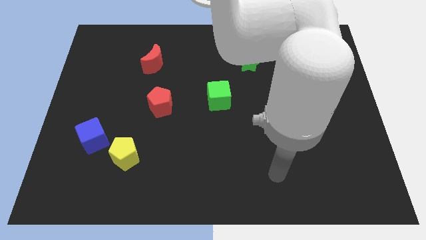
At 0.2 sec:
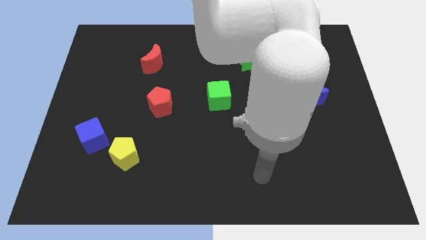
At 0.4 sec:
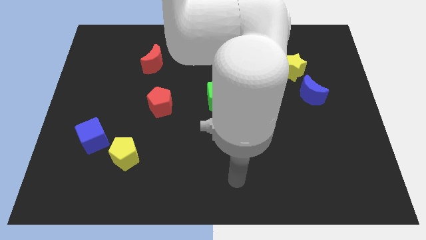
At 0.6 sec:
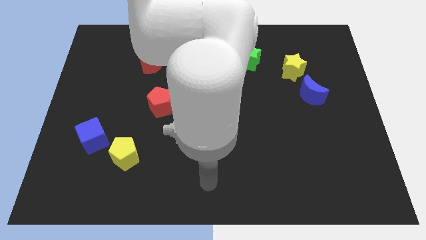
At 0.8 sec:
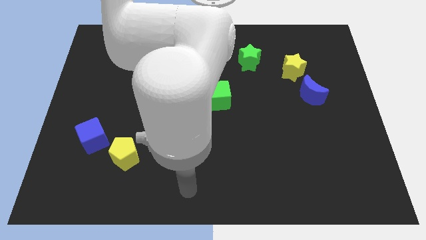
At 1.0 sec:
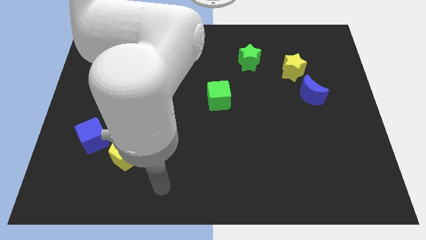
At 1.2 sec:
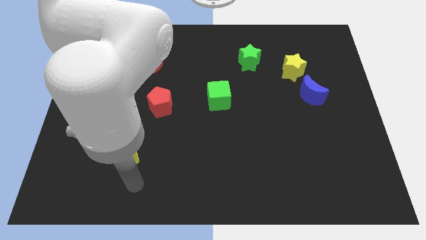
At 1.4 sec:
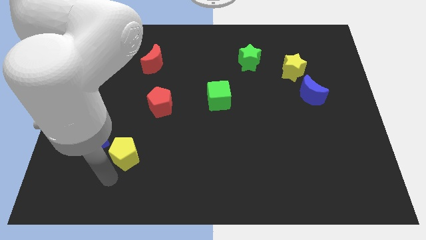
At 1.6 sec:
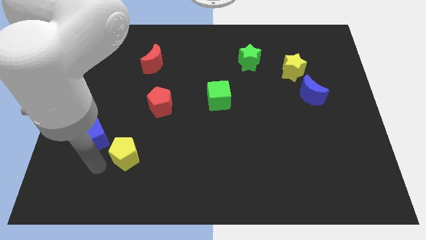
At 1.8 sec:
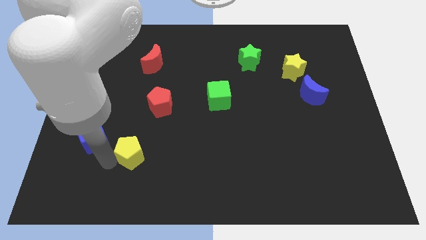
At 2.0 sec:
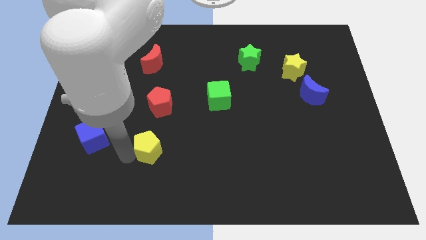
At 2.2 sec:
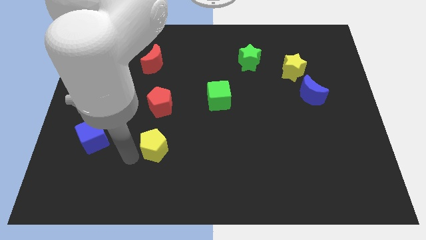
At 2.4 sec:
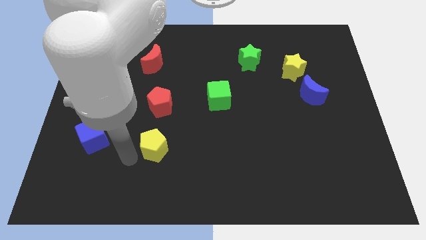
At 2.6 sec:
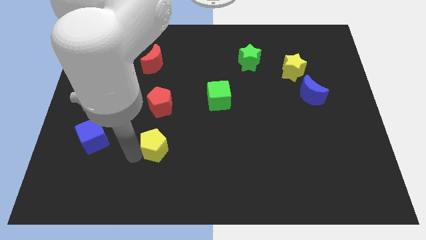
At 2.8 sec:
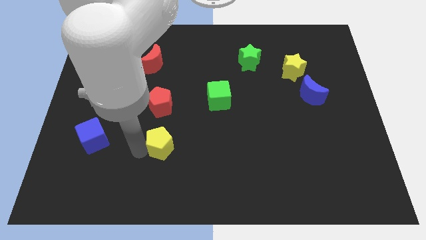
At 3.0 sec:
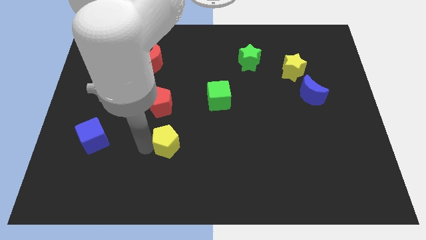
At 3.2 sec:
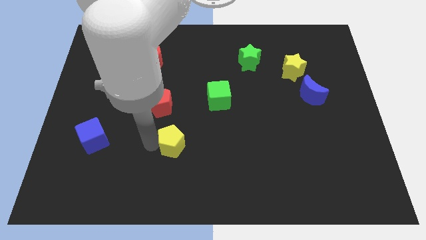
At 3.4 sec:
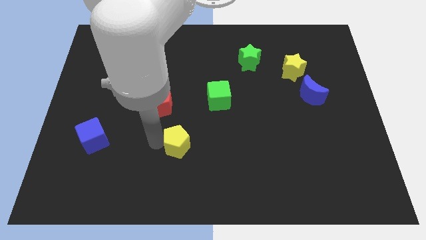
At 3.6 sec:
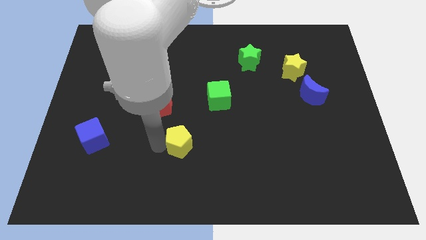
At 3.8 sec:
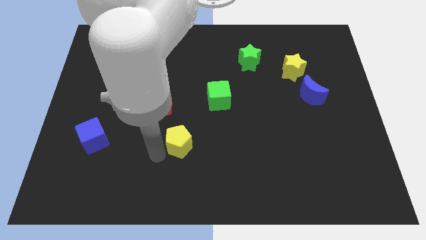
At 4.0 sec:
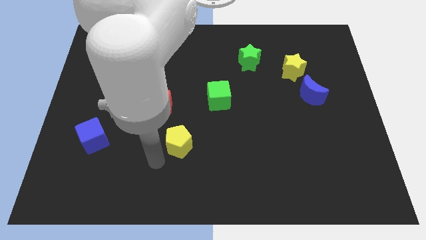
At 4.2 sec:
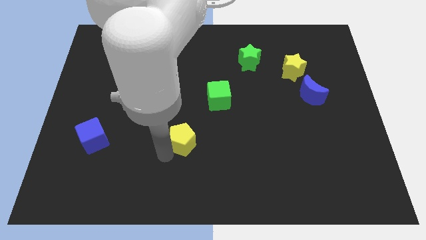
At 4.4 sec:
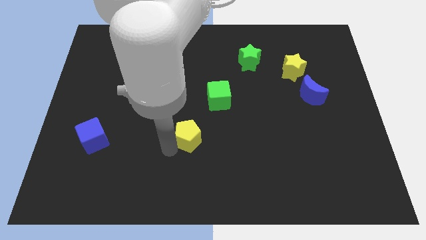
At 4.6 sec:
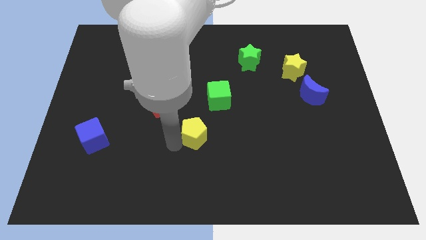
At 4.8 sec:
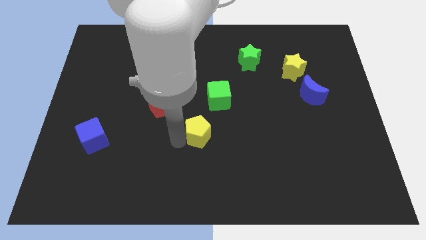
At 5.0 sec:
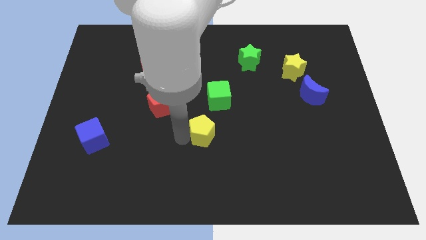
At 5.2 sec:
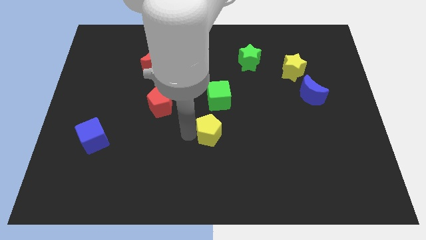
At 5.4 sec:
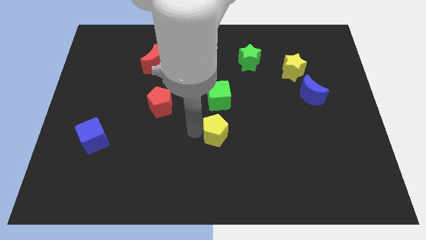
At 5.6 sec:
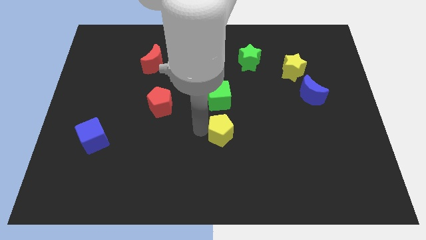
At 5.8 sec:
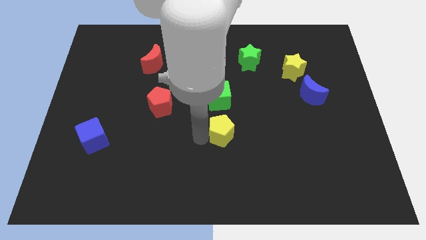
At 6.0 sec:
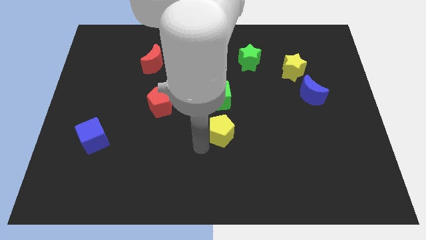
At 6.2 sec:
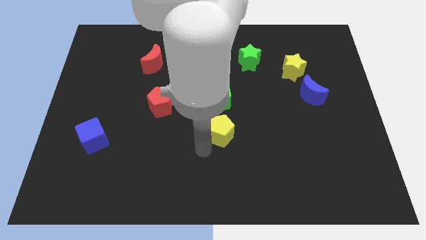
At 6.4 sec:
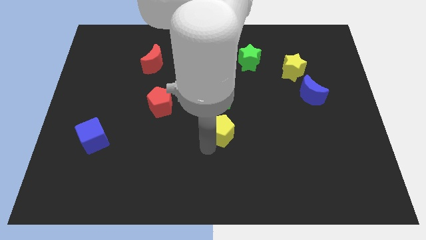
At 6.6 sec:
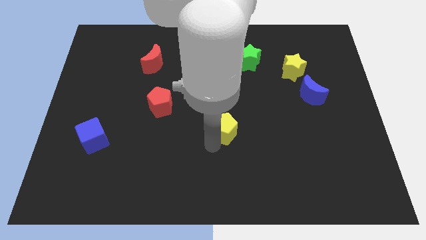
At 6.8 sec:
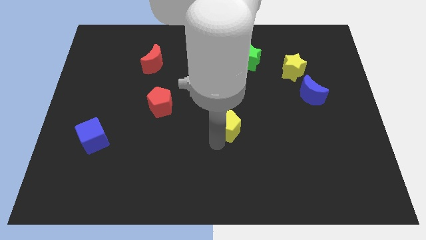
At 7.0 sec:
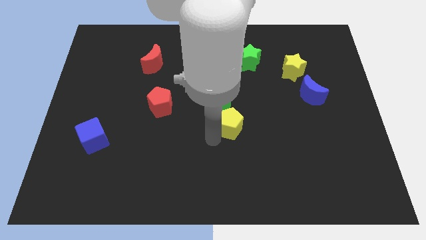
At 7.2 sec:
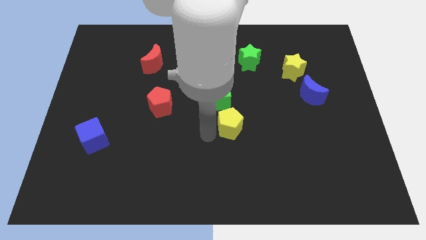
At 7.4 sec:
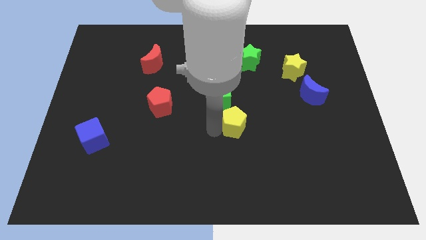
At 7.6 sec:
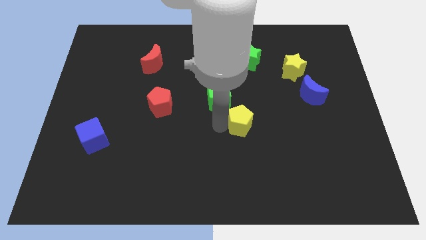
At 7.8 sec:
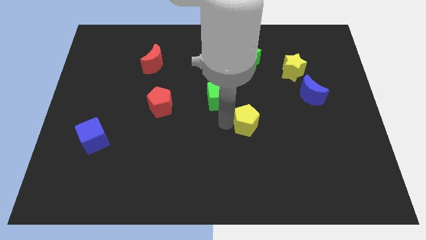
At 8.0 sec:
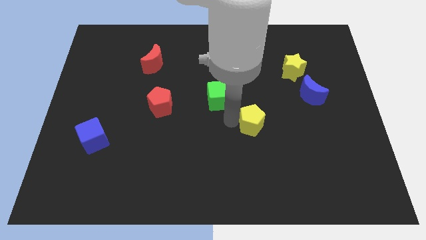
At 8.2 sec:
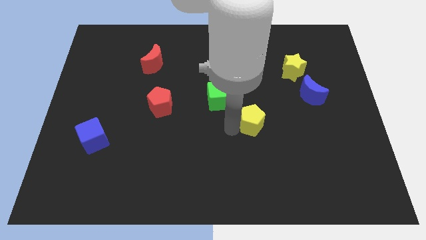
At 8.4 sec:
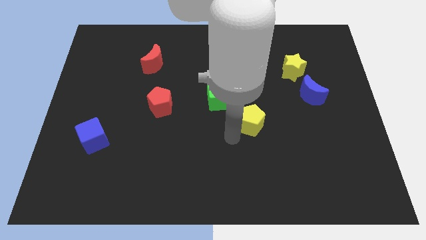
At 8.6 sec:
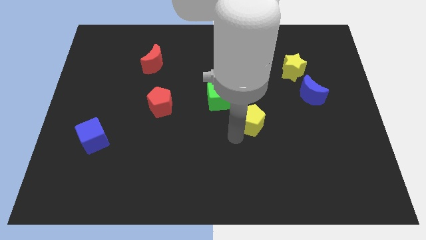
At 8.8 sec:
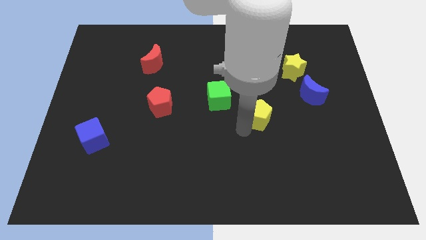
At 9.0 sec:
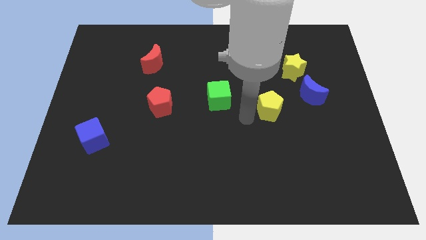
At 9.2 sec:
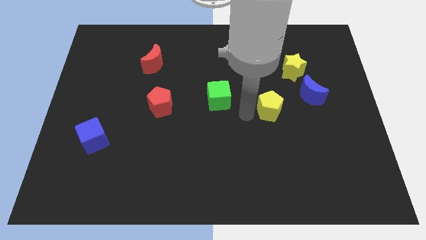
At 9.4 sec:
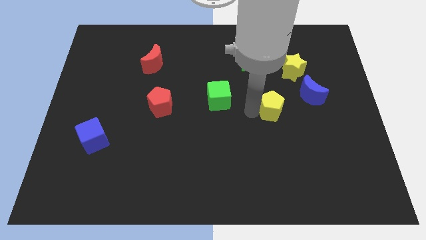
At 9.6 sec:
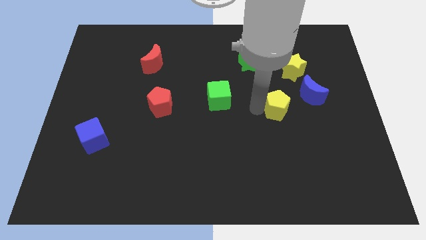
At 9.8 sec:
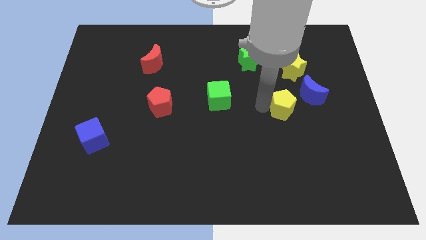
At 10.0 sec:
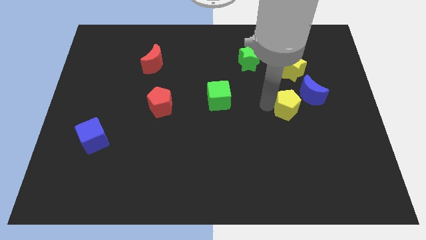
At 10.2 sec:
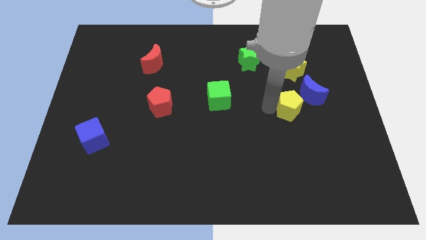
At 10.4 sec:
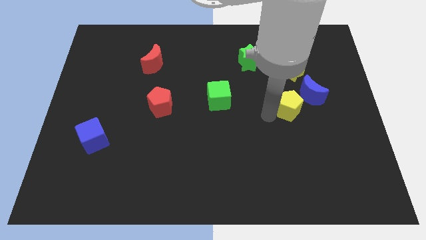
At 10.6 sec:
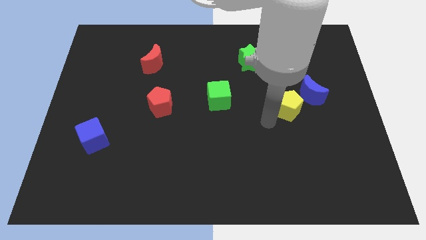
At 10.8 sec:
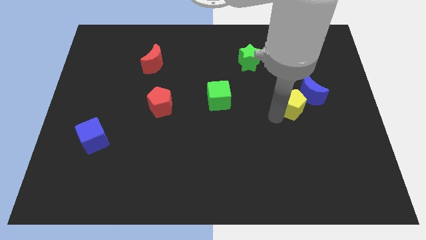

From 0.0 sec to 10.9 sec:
push the yellow pentagon to the blue moon

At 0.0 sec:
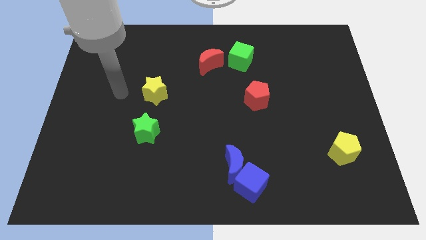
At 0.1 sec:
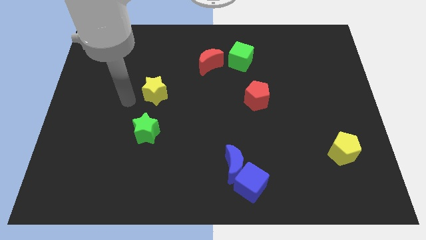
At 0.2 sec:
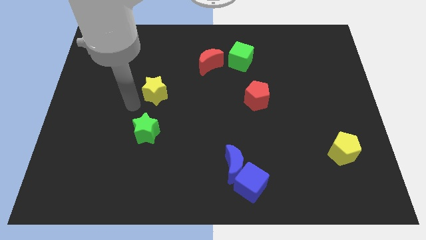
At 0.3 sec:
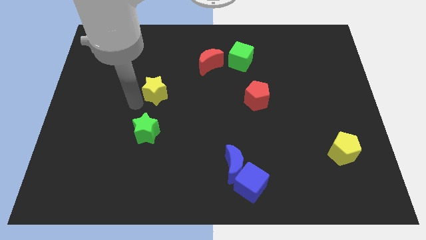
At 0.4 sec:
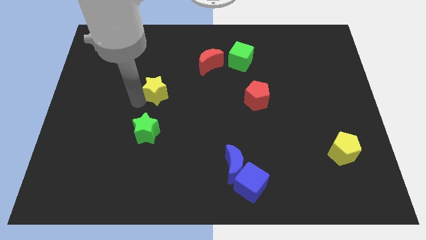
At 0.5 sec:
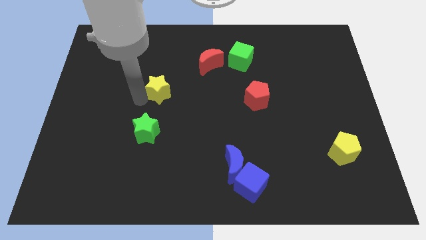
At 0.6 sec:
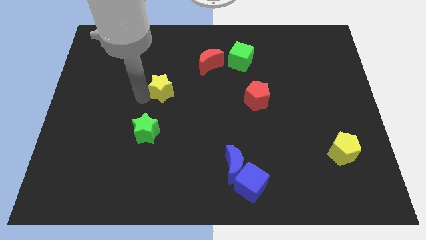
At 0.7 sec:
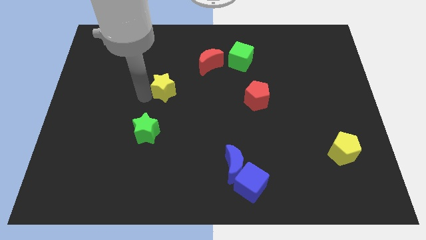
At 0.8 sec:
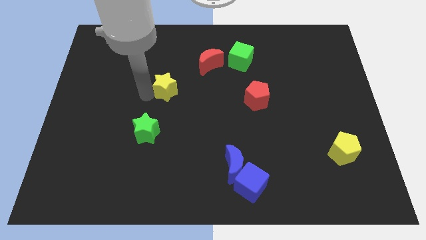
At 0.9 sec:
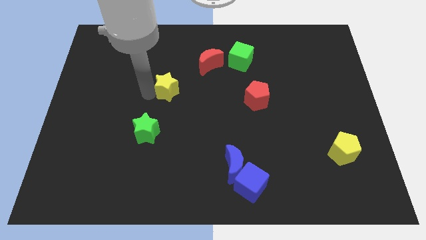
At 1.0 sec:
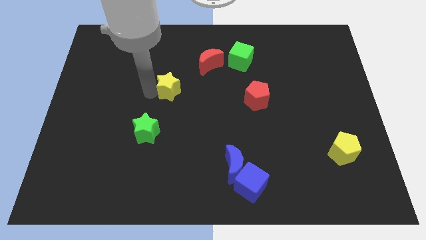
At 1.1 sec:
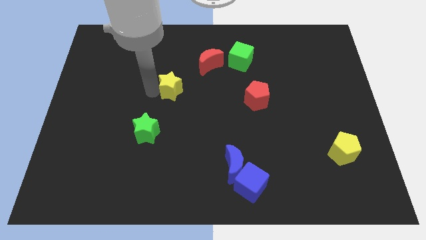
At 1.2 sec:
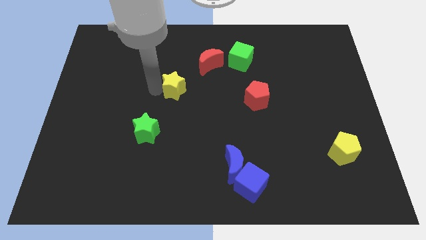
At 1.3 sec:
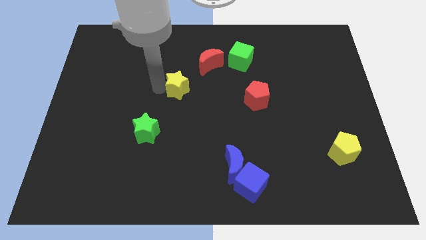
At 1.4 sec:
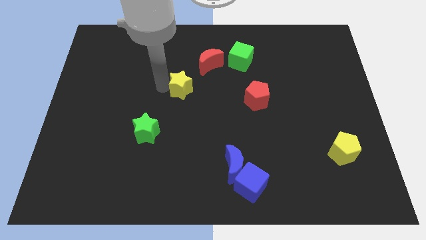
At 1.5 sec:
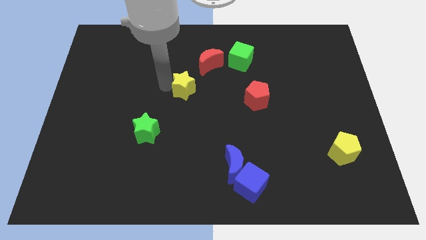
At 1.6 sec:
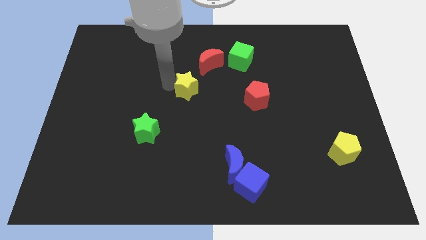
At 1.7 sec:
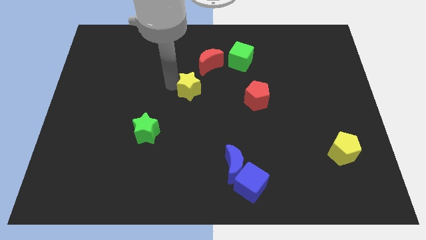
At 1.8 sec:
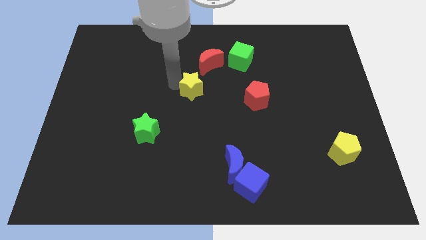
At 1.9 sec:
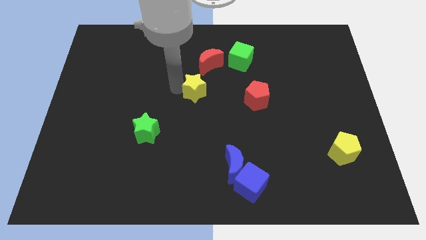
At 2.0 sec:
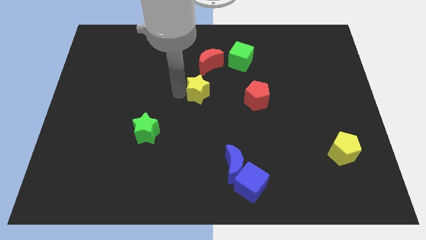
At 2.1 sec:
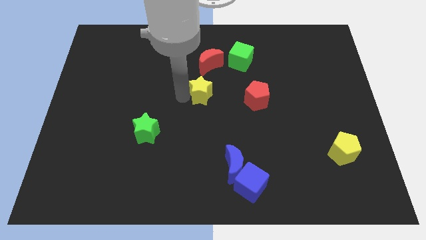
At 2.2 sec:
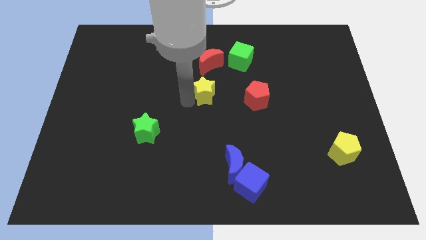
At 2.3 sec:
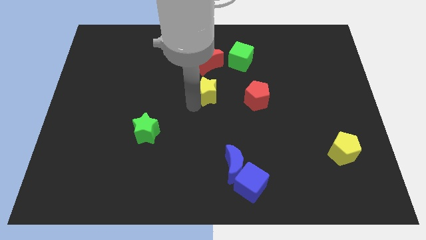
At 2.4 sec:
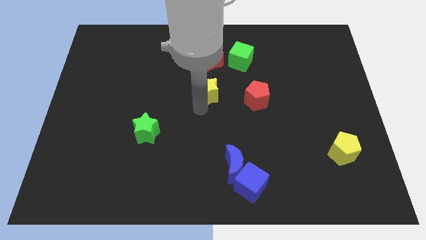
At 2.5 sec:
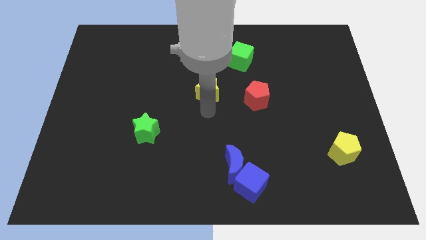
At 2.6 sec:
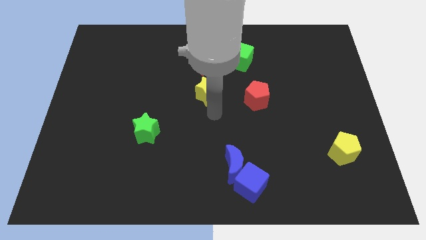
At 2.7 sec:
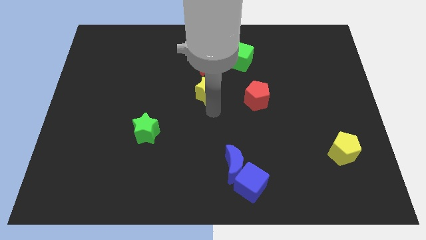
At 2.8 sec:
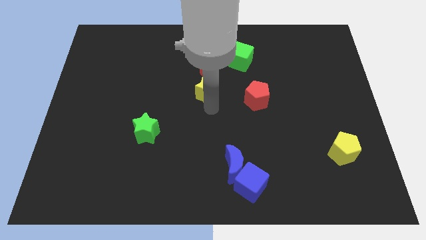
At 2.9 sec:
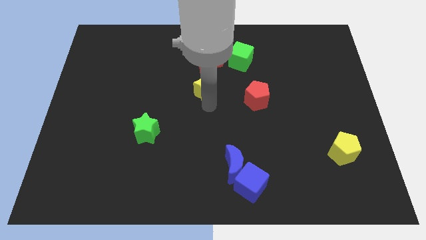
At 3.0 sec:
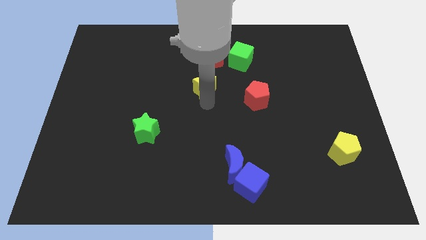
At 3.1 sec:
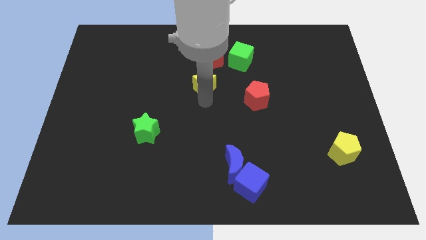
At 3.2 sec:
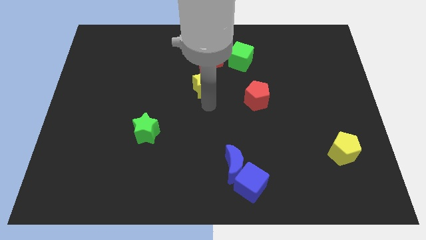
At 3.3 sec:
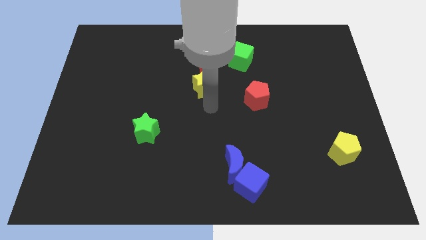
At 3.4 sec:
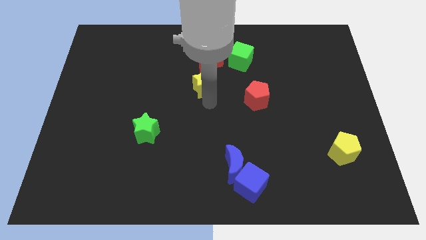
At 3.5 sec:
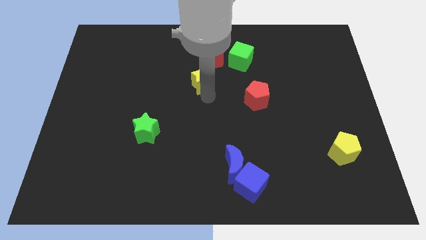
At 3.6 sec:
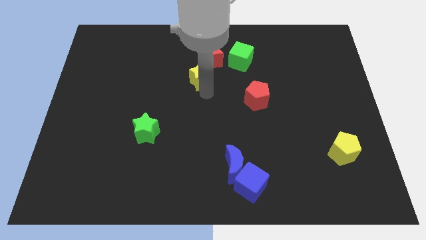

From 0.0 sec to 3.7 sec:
move the yellow star next to the red moon
